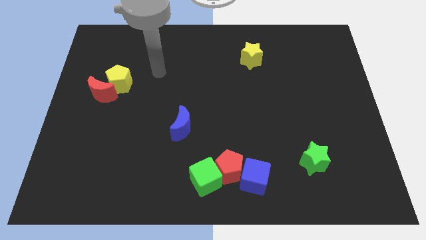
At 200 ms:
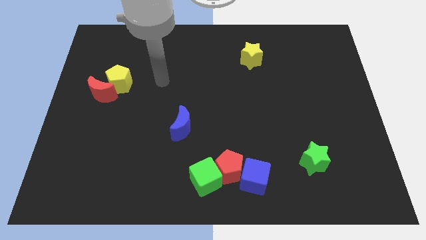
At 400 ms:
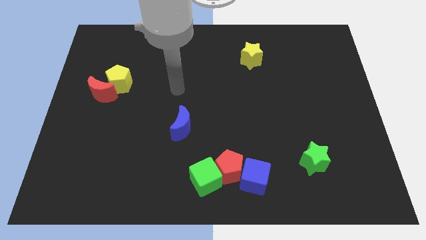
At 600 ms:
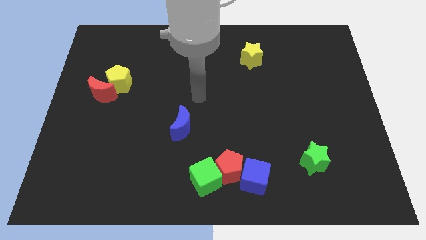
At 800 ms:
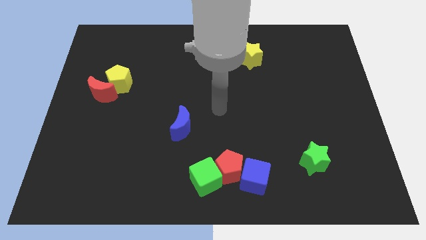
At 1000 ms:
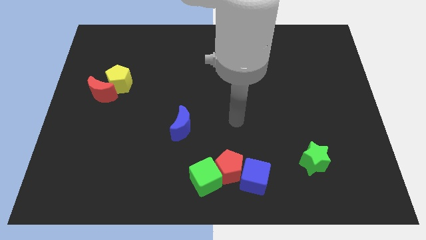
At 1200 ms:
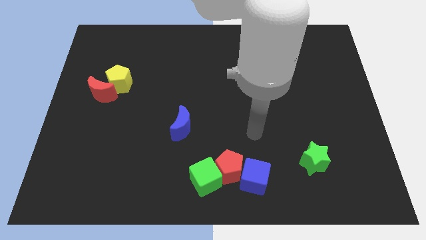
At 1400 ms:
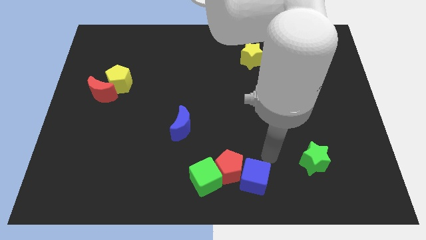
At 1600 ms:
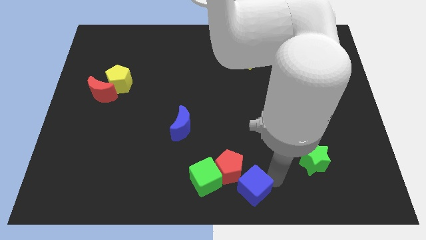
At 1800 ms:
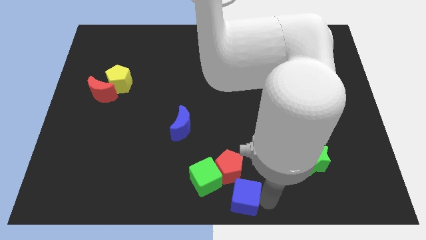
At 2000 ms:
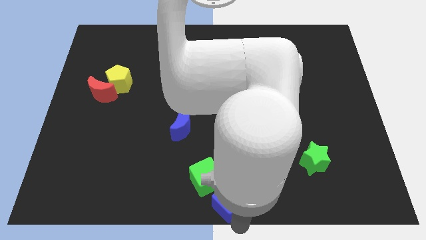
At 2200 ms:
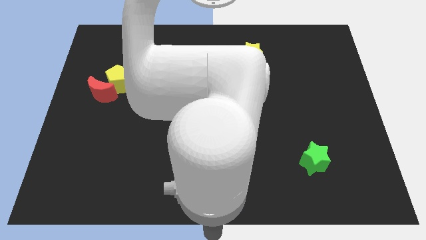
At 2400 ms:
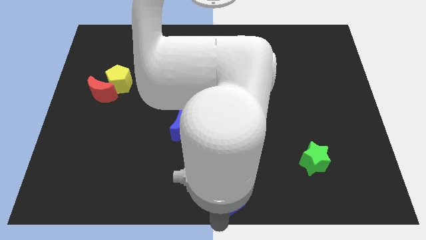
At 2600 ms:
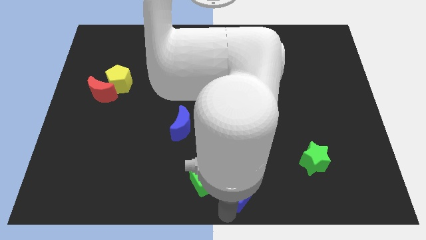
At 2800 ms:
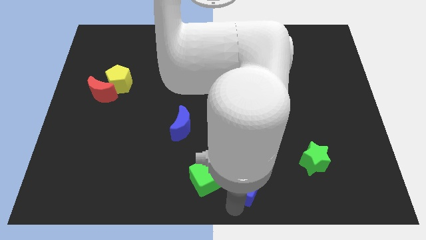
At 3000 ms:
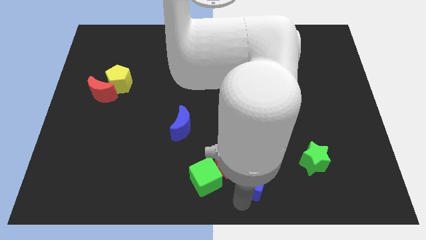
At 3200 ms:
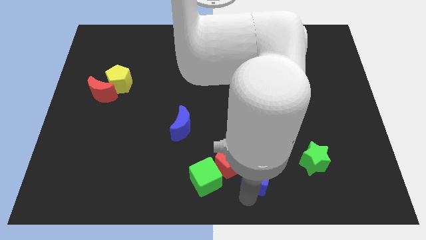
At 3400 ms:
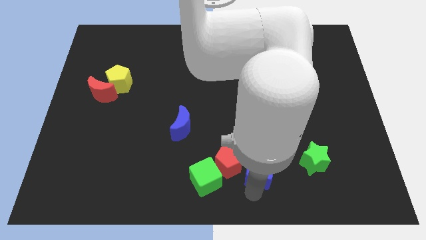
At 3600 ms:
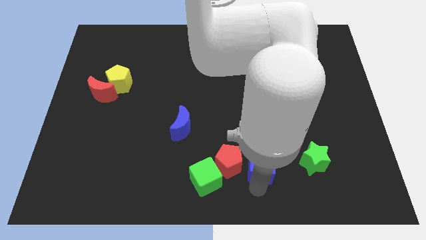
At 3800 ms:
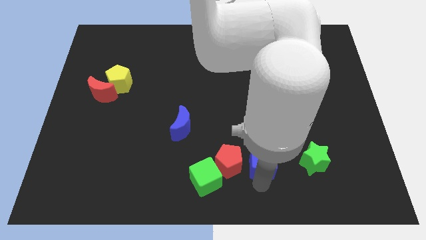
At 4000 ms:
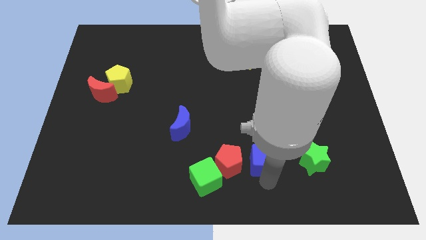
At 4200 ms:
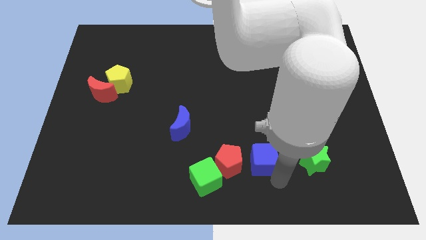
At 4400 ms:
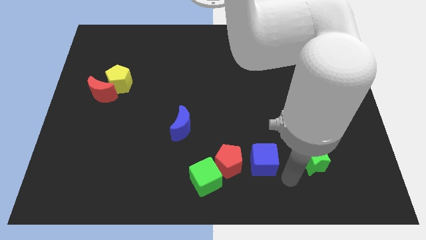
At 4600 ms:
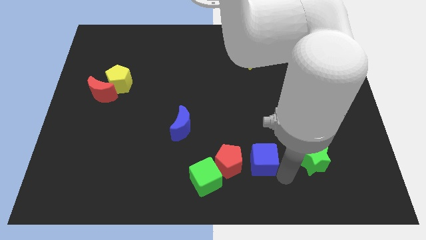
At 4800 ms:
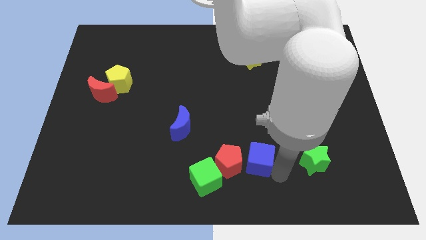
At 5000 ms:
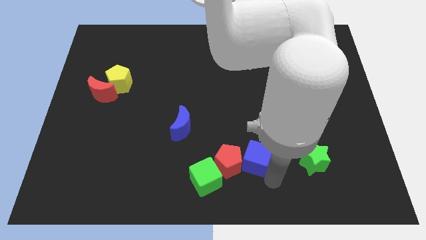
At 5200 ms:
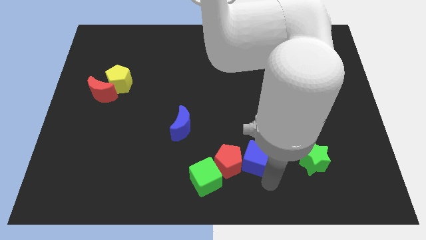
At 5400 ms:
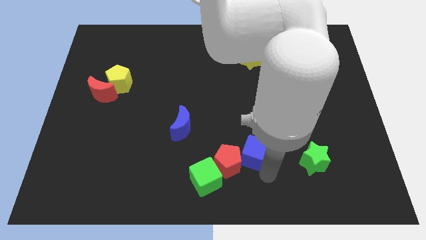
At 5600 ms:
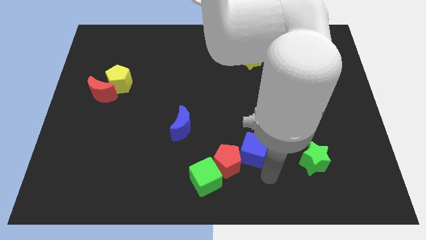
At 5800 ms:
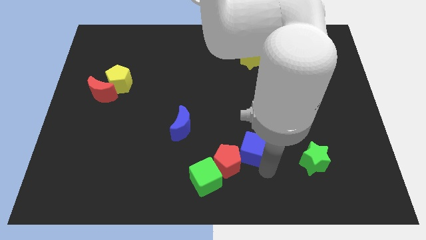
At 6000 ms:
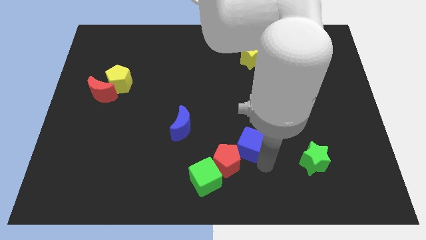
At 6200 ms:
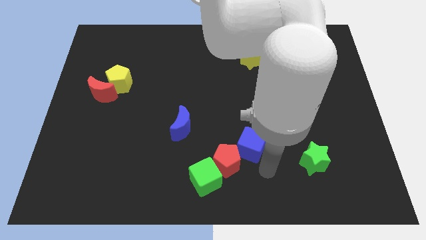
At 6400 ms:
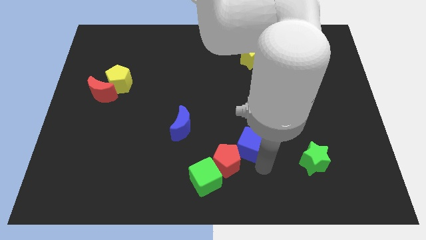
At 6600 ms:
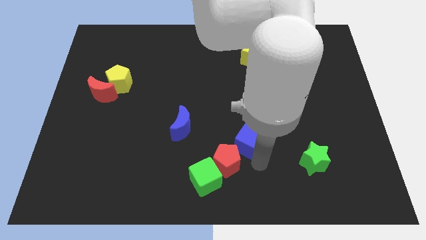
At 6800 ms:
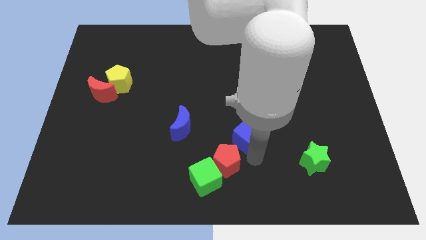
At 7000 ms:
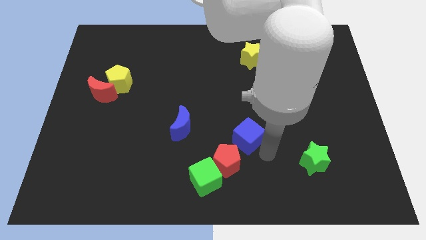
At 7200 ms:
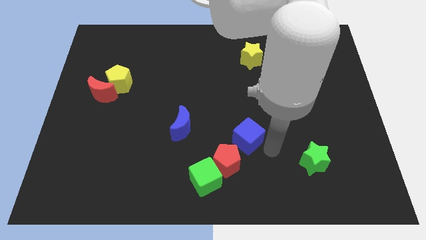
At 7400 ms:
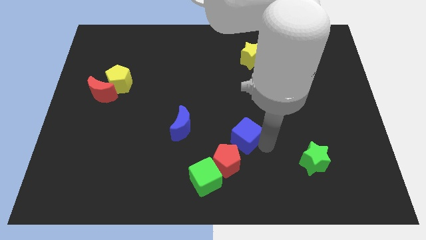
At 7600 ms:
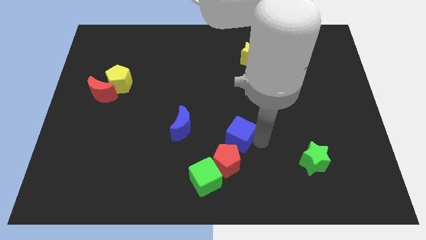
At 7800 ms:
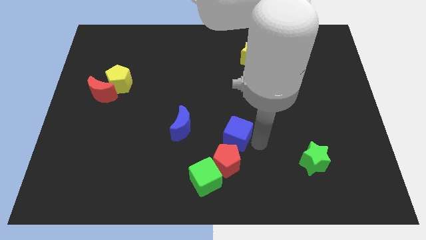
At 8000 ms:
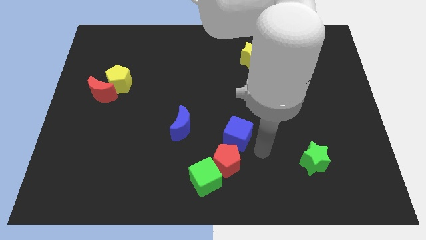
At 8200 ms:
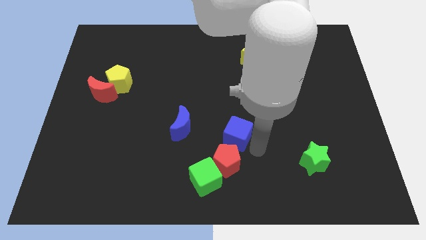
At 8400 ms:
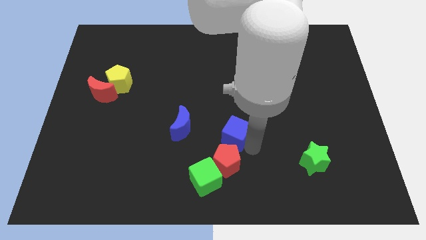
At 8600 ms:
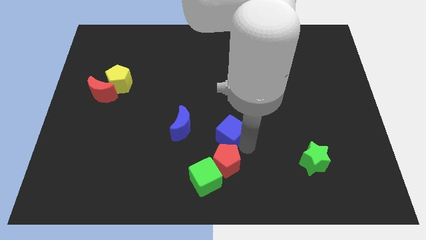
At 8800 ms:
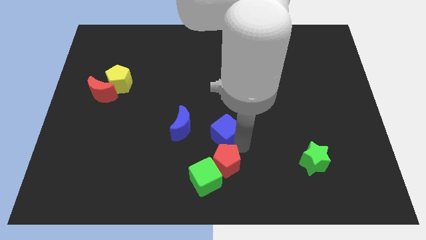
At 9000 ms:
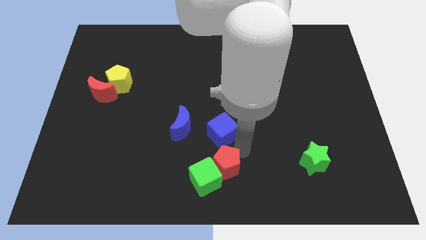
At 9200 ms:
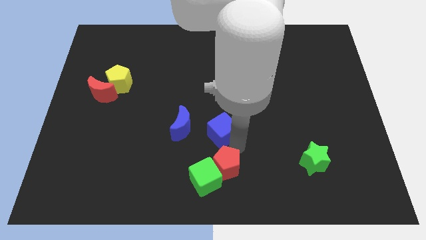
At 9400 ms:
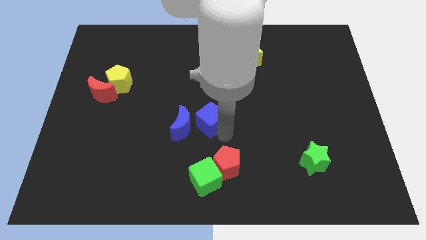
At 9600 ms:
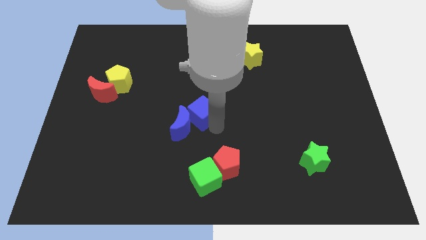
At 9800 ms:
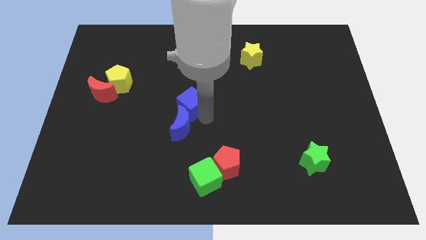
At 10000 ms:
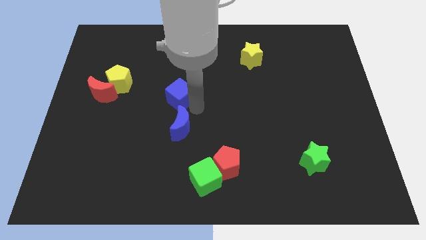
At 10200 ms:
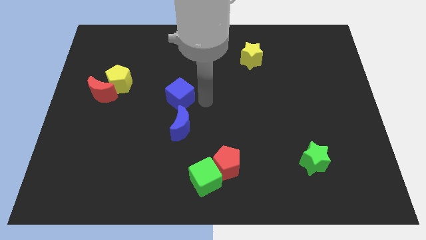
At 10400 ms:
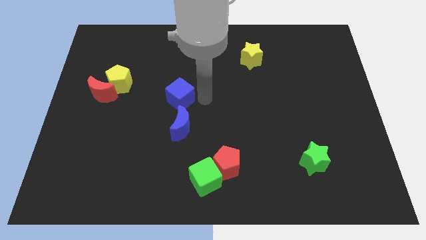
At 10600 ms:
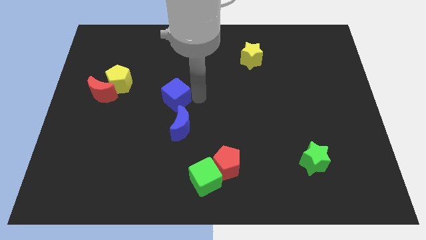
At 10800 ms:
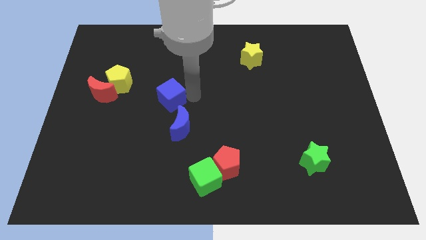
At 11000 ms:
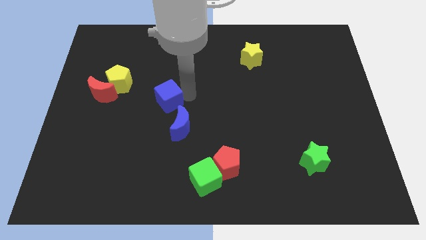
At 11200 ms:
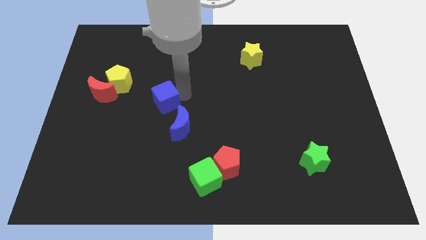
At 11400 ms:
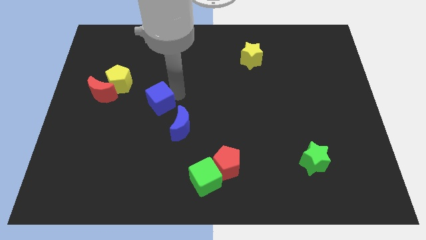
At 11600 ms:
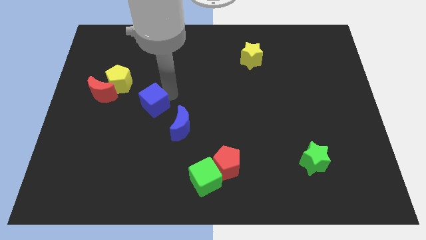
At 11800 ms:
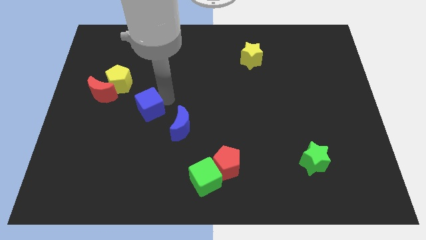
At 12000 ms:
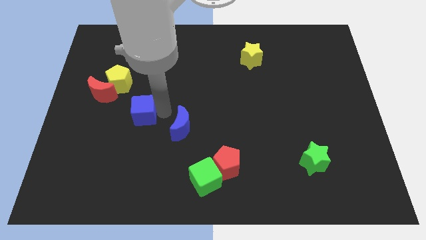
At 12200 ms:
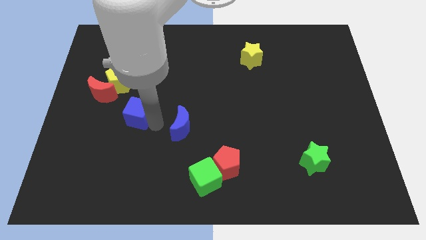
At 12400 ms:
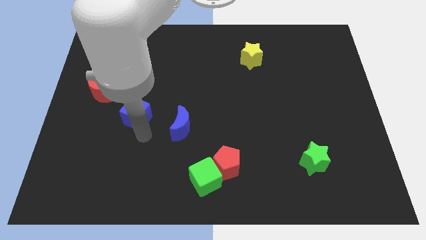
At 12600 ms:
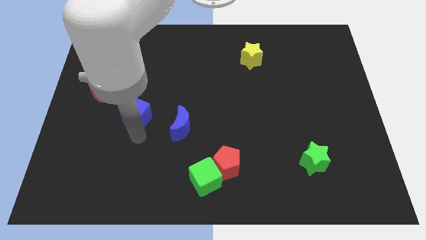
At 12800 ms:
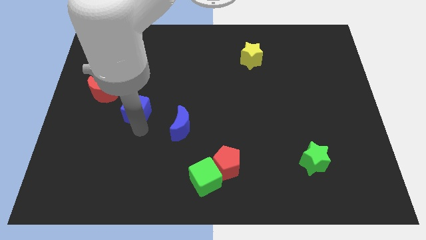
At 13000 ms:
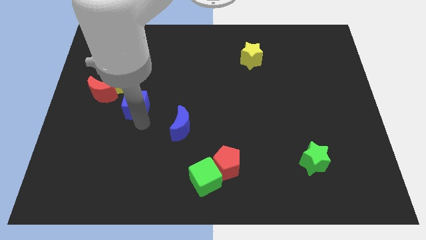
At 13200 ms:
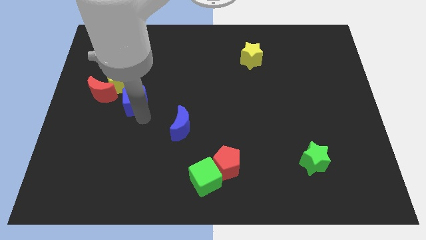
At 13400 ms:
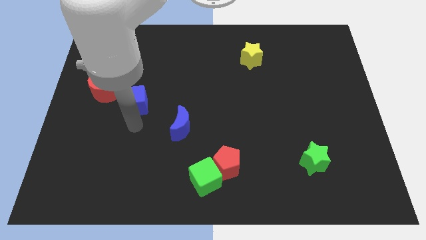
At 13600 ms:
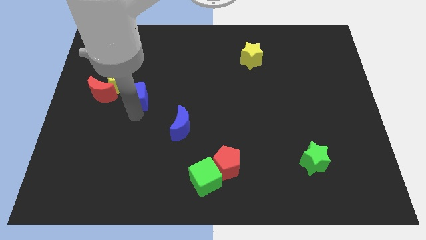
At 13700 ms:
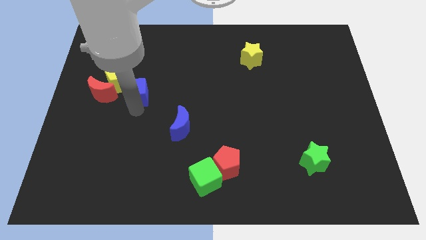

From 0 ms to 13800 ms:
slide the blue cube to the yellow pentagon

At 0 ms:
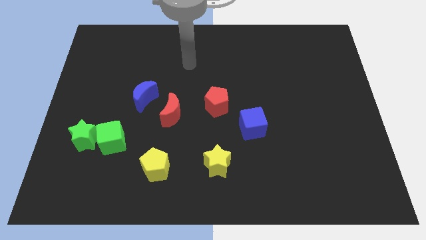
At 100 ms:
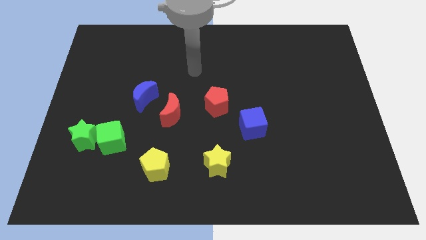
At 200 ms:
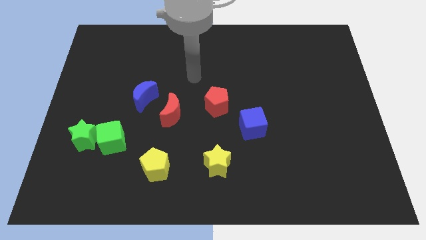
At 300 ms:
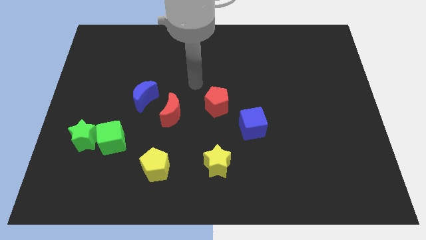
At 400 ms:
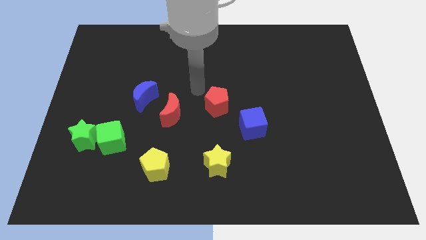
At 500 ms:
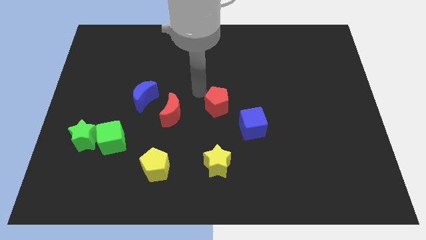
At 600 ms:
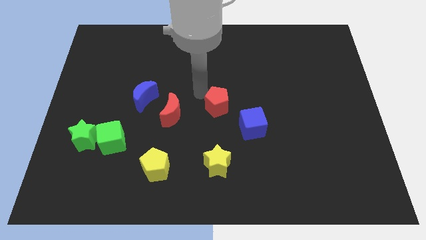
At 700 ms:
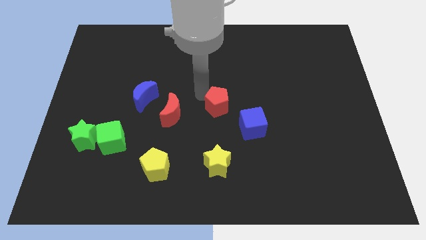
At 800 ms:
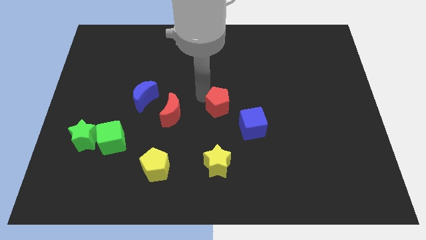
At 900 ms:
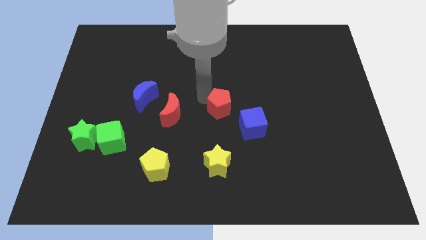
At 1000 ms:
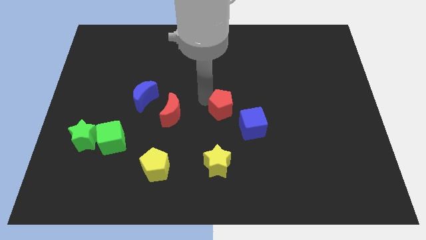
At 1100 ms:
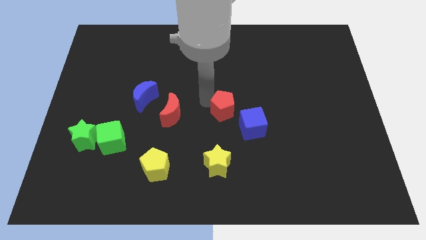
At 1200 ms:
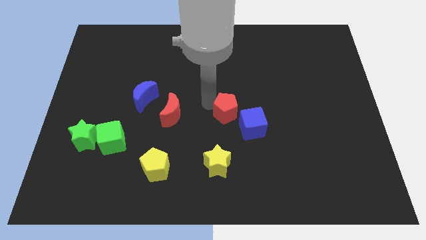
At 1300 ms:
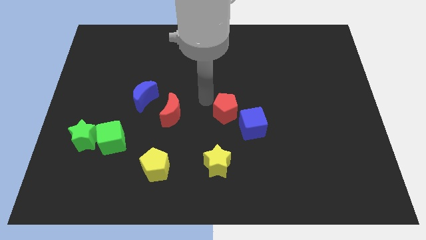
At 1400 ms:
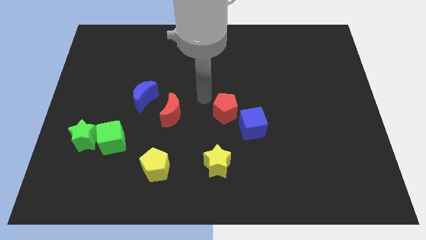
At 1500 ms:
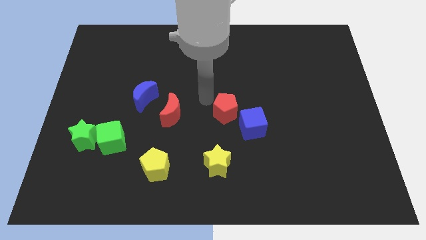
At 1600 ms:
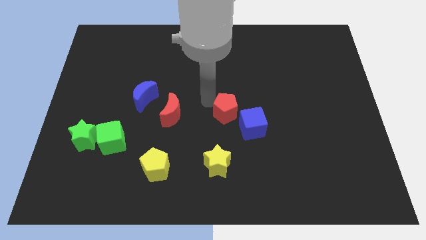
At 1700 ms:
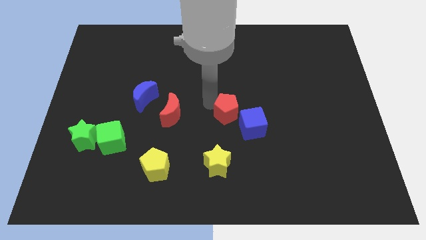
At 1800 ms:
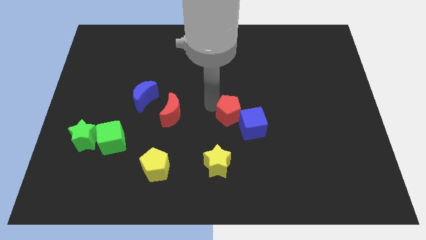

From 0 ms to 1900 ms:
move the red pentagon next to the blue cube
